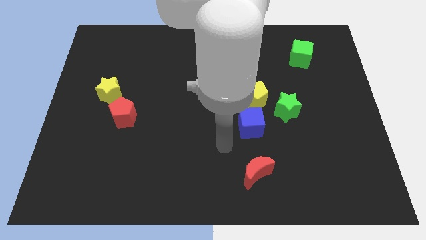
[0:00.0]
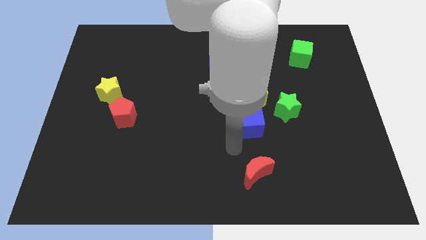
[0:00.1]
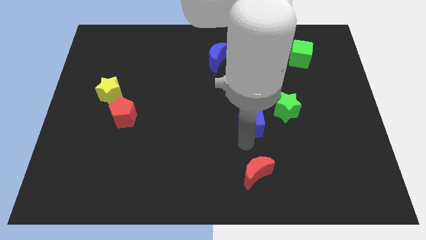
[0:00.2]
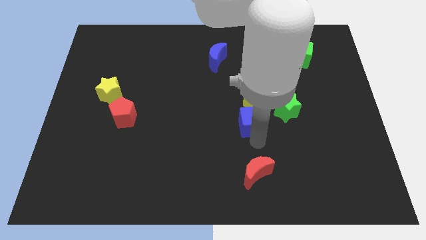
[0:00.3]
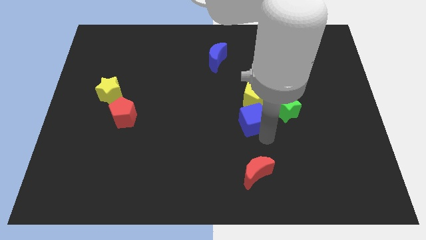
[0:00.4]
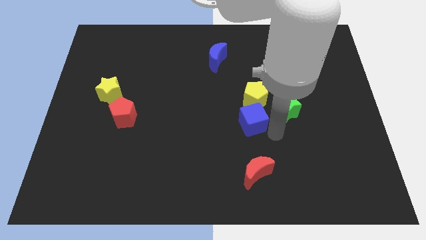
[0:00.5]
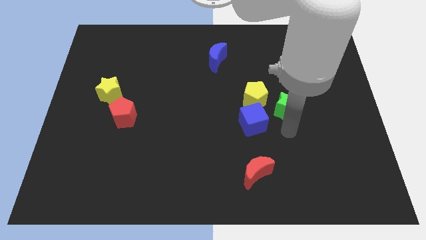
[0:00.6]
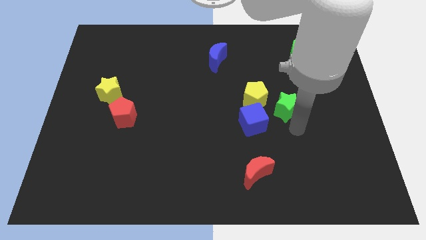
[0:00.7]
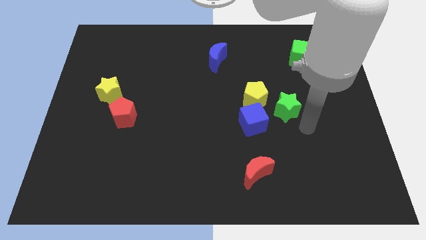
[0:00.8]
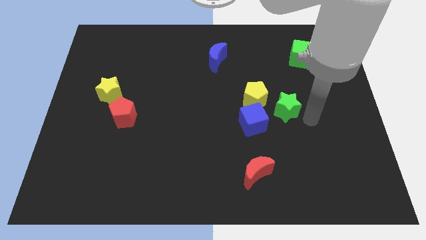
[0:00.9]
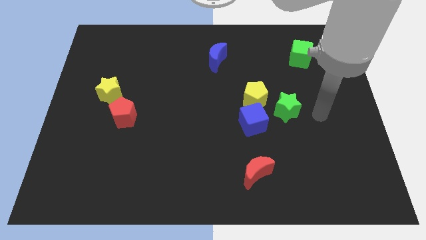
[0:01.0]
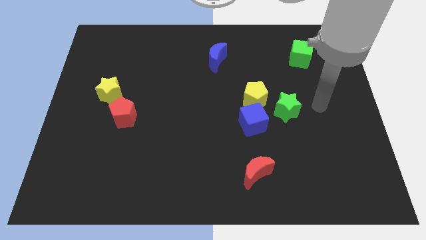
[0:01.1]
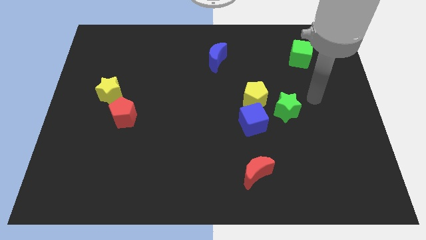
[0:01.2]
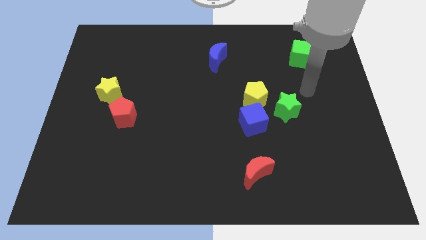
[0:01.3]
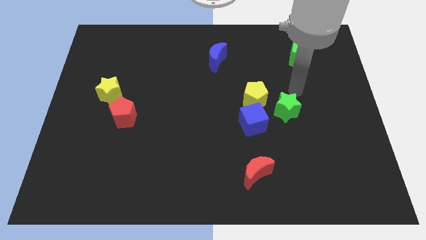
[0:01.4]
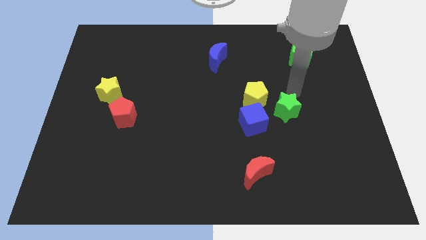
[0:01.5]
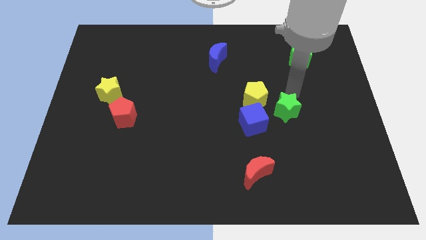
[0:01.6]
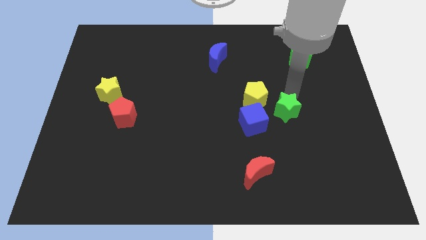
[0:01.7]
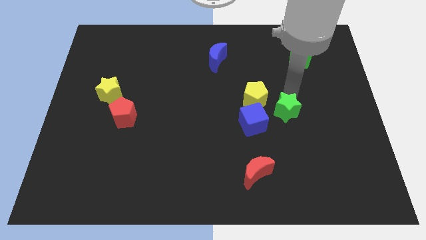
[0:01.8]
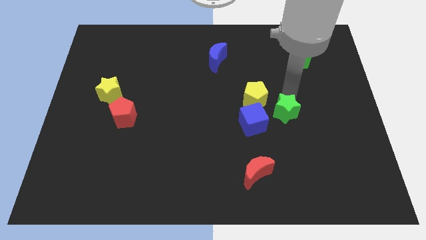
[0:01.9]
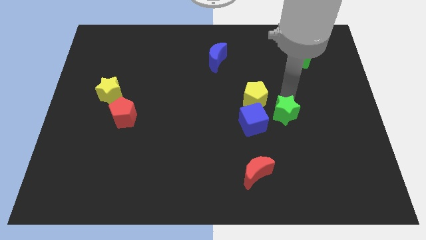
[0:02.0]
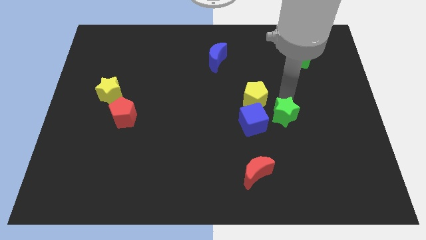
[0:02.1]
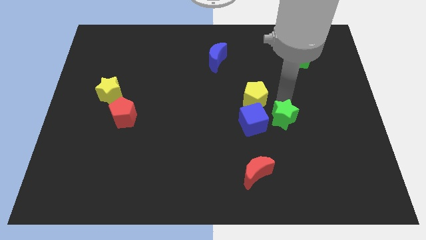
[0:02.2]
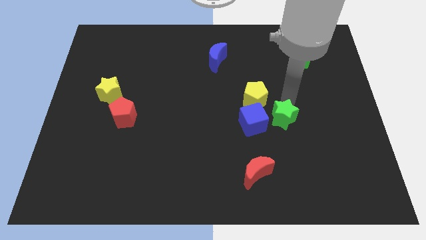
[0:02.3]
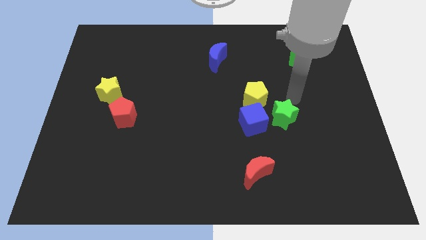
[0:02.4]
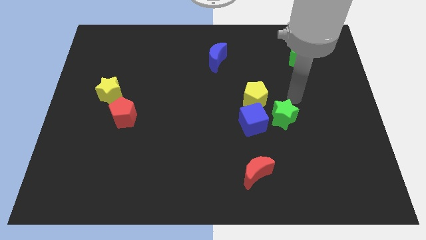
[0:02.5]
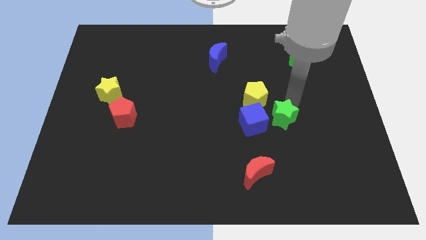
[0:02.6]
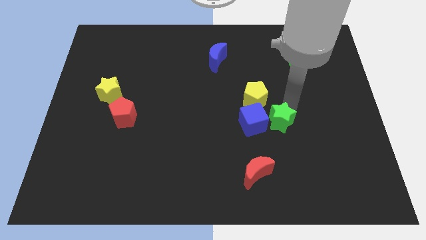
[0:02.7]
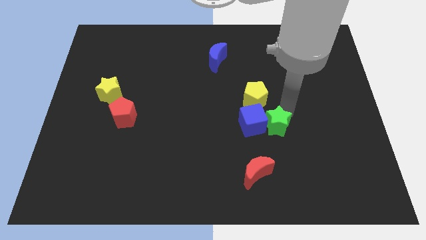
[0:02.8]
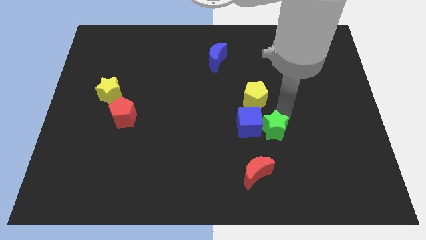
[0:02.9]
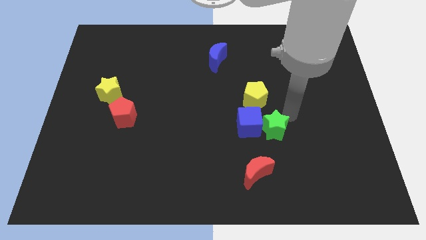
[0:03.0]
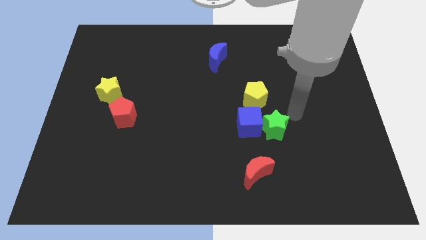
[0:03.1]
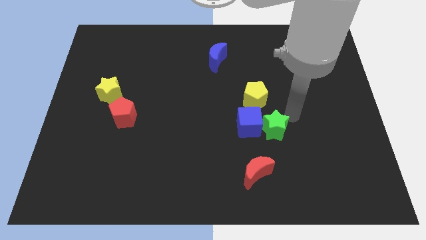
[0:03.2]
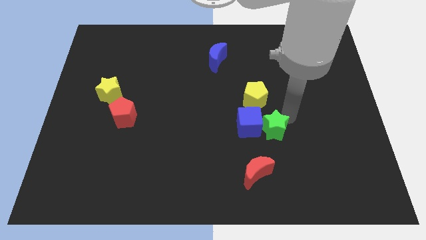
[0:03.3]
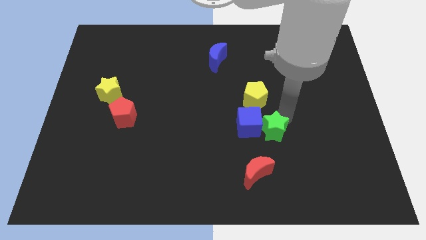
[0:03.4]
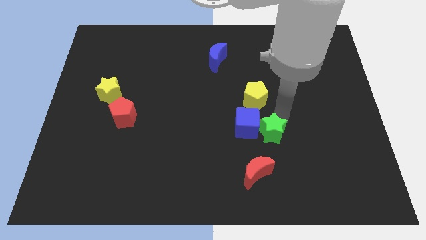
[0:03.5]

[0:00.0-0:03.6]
slide the green star a bit downwards and left

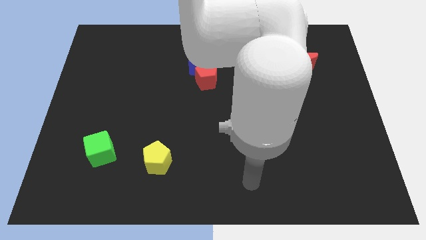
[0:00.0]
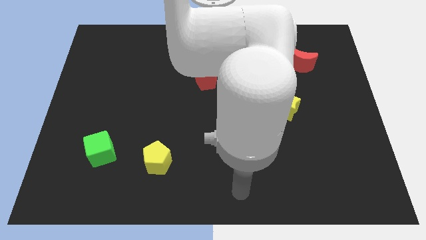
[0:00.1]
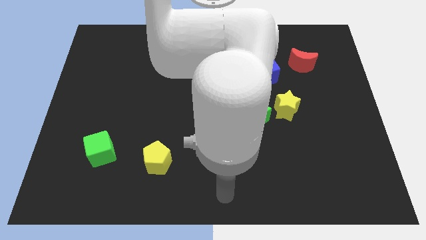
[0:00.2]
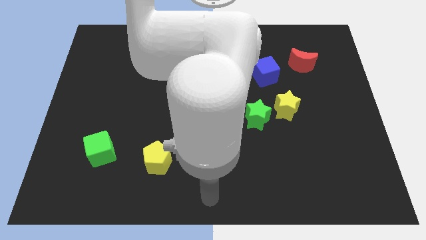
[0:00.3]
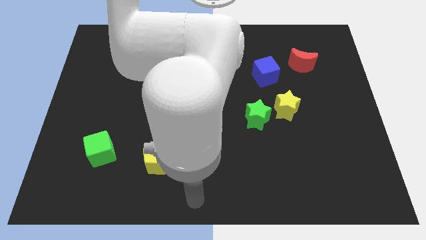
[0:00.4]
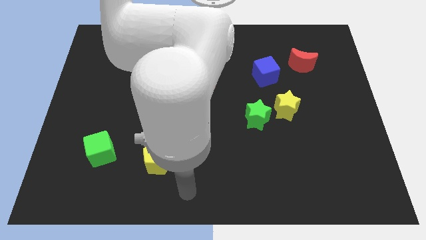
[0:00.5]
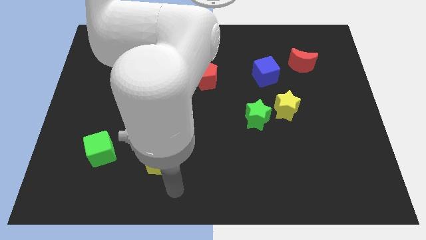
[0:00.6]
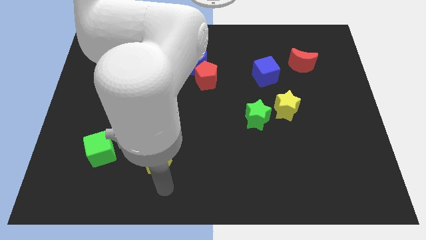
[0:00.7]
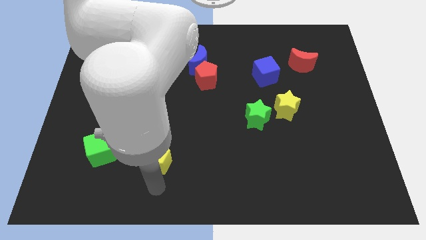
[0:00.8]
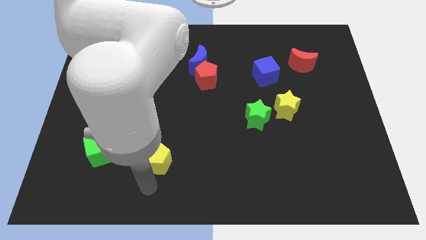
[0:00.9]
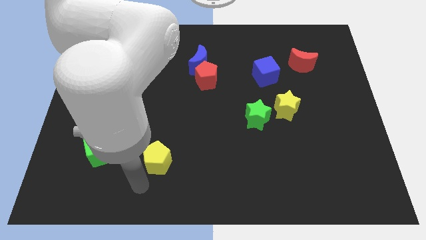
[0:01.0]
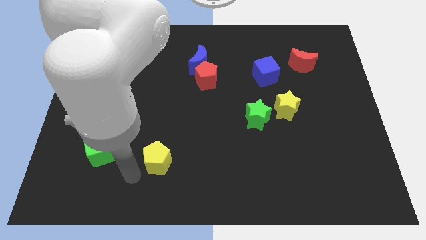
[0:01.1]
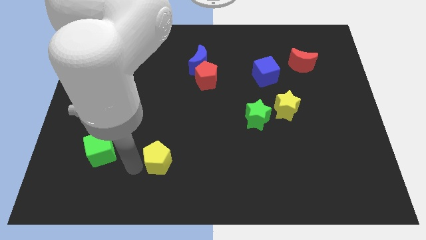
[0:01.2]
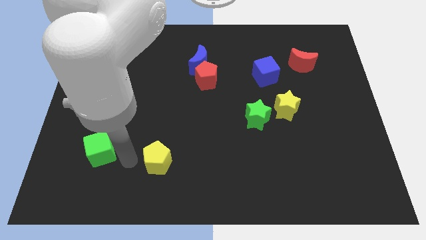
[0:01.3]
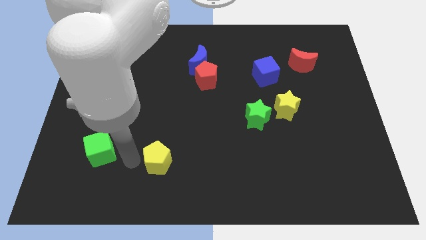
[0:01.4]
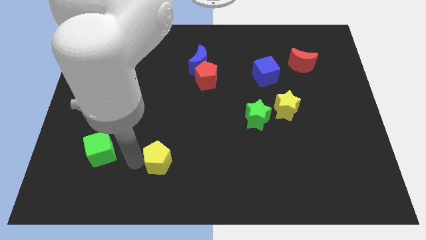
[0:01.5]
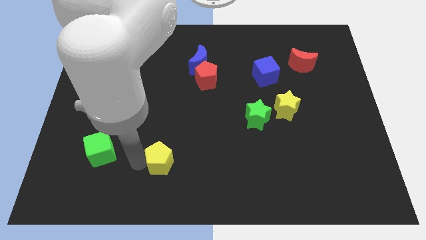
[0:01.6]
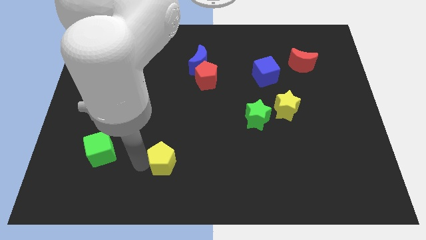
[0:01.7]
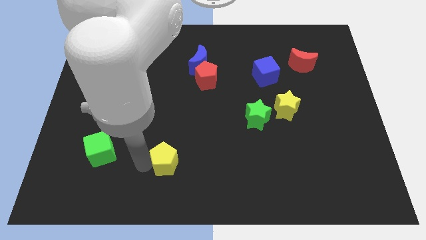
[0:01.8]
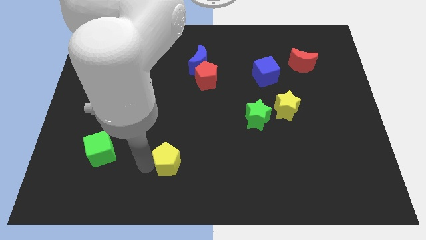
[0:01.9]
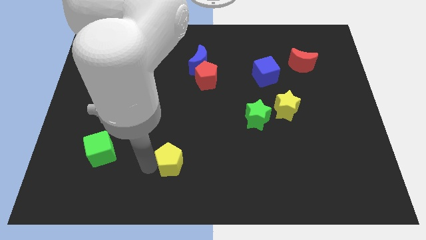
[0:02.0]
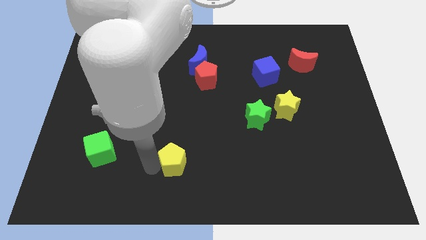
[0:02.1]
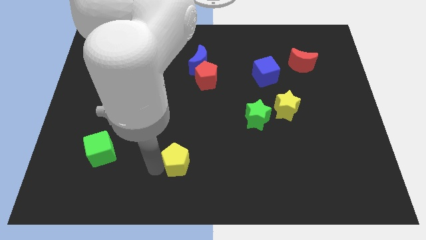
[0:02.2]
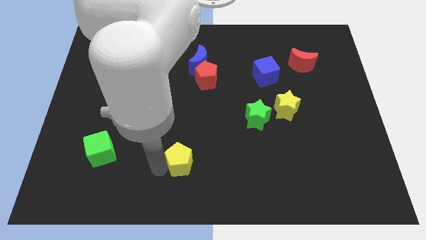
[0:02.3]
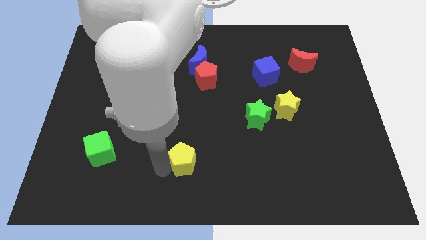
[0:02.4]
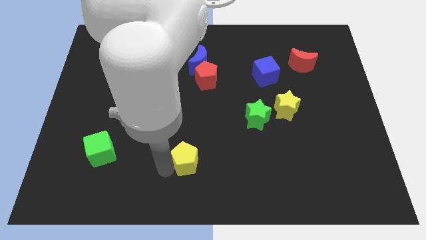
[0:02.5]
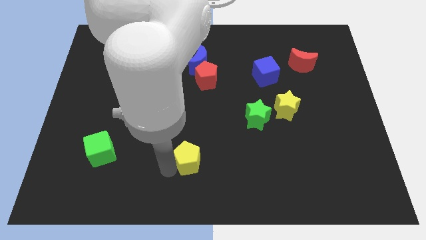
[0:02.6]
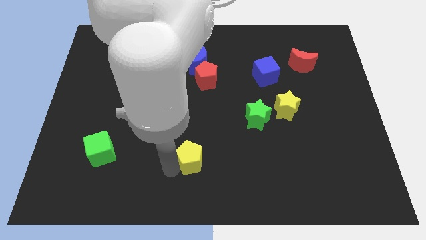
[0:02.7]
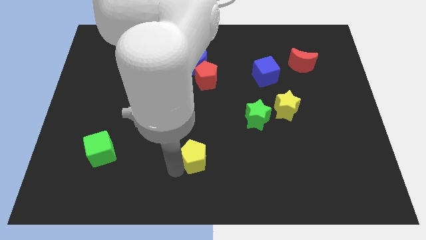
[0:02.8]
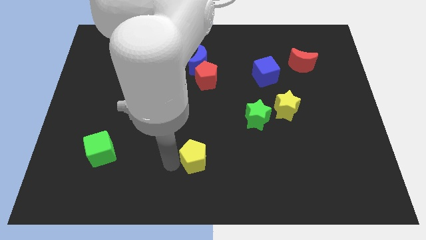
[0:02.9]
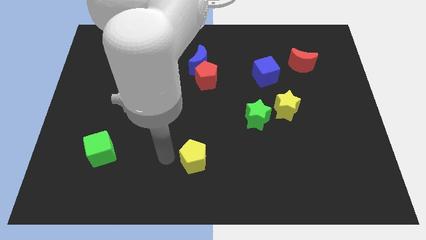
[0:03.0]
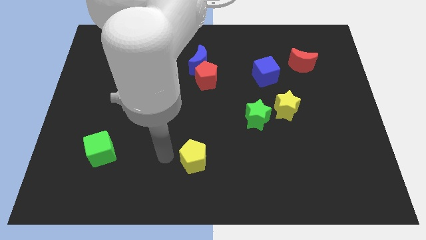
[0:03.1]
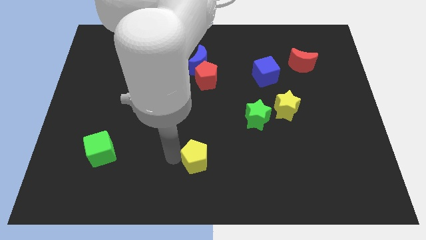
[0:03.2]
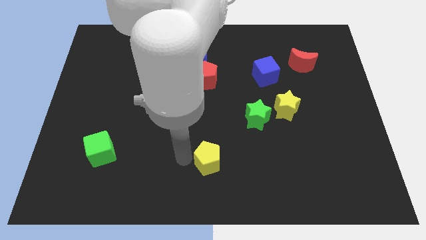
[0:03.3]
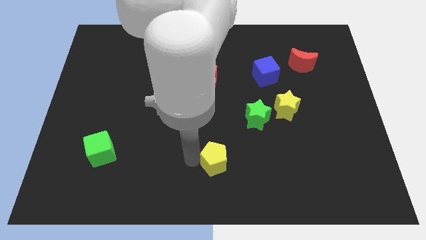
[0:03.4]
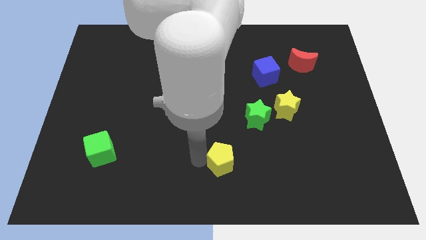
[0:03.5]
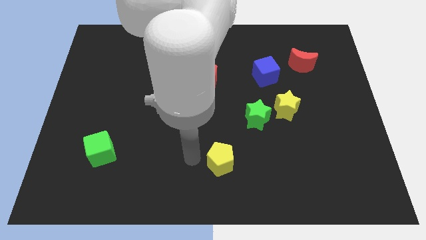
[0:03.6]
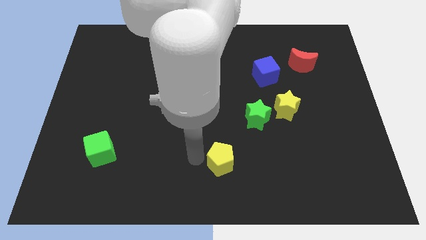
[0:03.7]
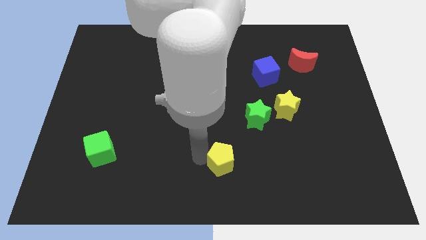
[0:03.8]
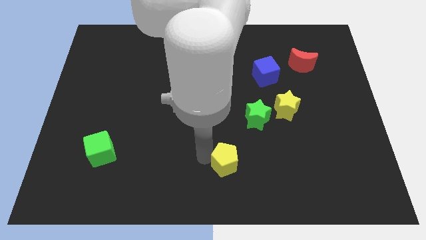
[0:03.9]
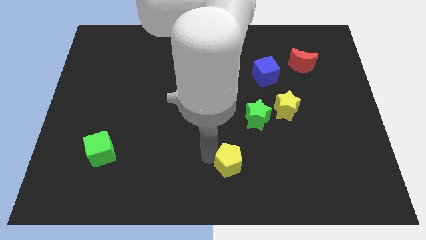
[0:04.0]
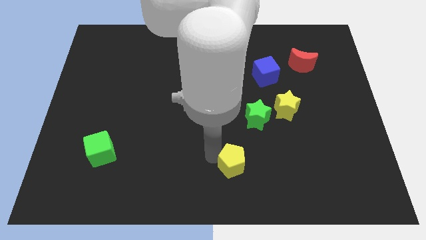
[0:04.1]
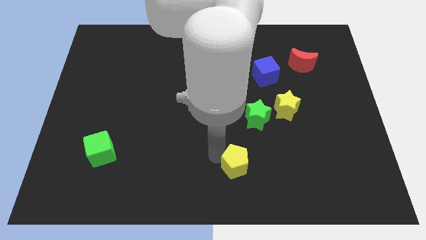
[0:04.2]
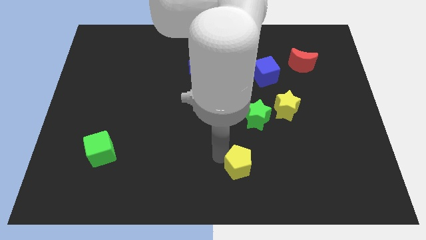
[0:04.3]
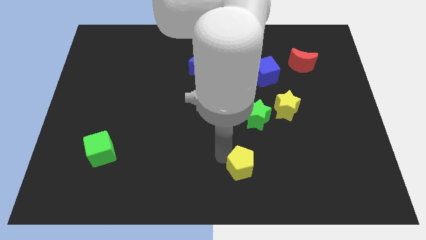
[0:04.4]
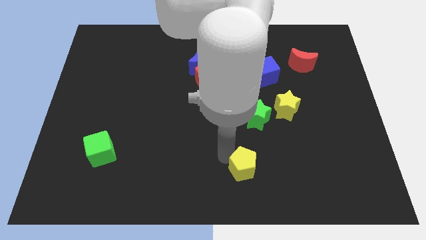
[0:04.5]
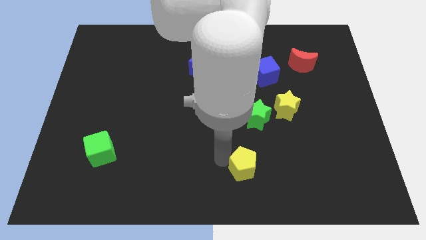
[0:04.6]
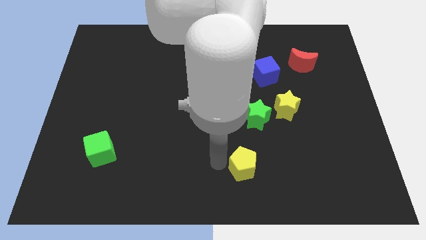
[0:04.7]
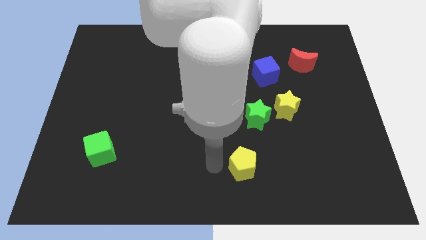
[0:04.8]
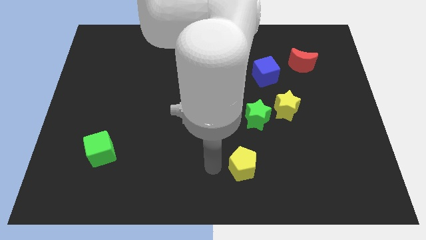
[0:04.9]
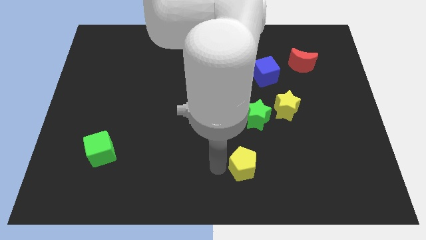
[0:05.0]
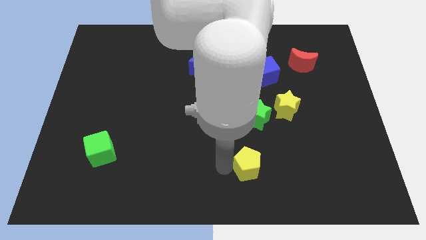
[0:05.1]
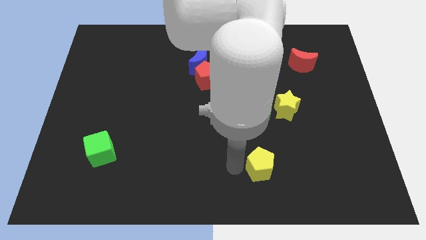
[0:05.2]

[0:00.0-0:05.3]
move the yellow pentagon to the right
